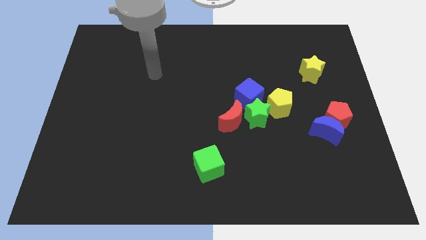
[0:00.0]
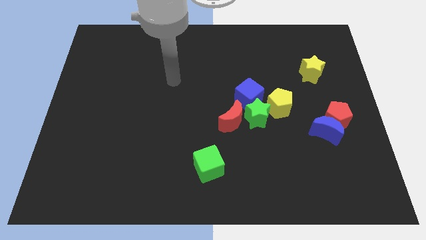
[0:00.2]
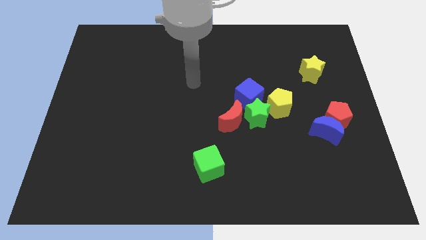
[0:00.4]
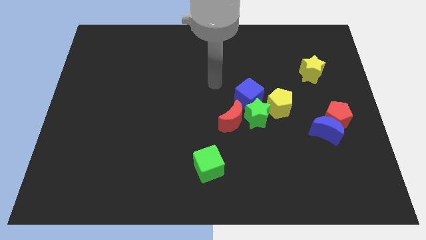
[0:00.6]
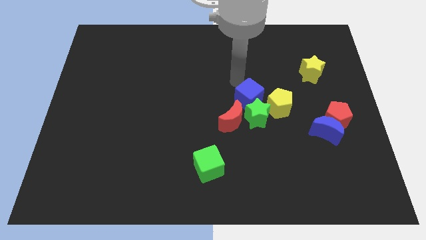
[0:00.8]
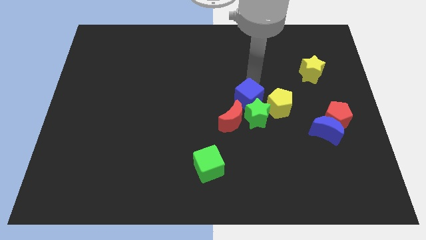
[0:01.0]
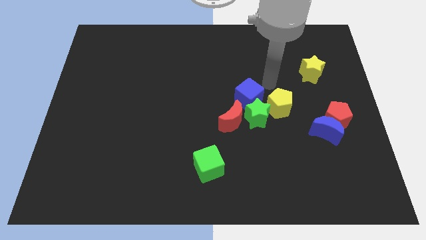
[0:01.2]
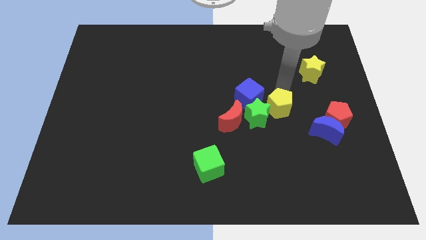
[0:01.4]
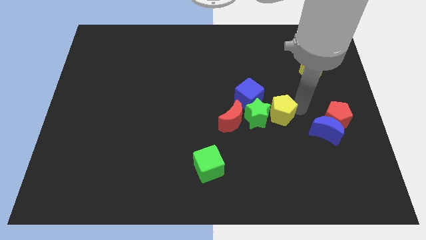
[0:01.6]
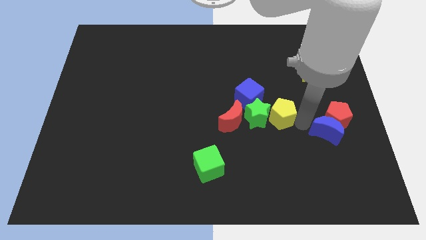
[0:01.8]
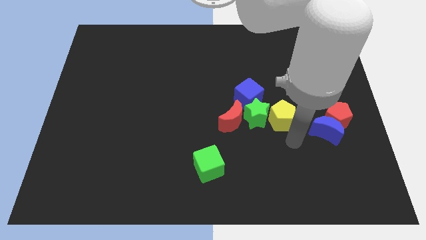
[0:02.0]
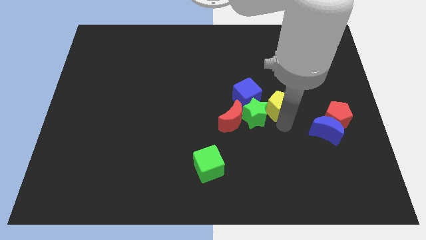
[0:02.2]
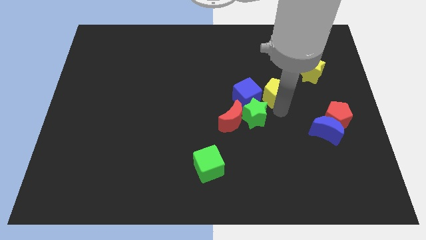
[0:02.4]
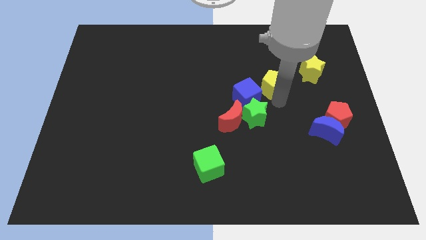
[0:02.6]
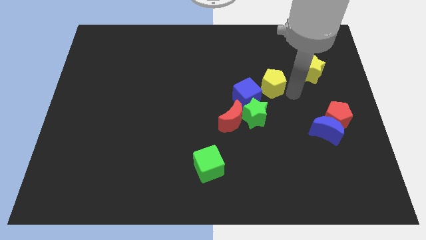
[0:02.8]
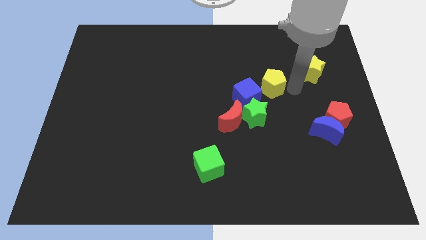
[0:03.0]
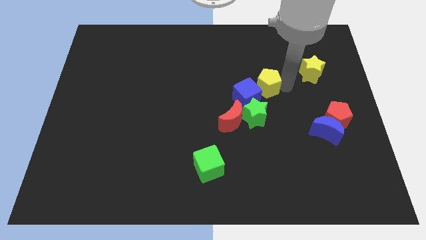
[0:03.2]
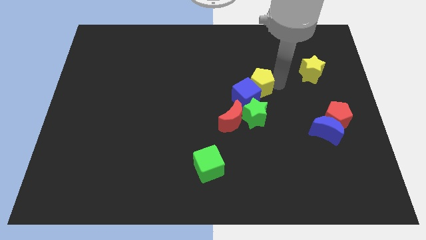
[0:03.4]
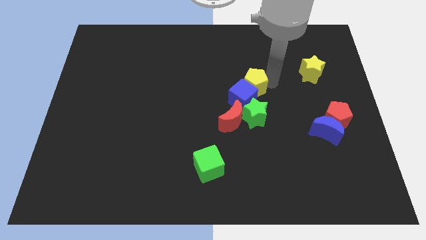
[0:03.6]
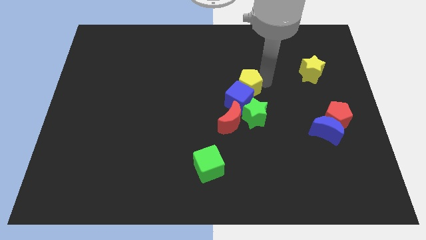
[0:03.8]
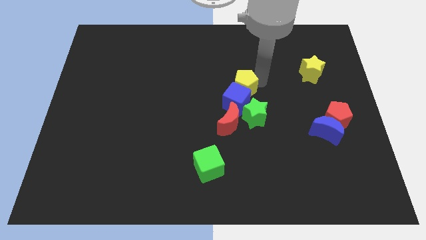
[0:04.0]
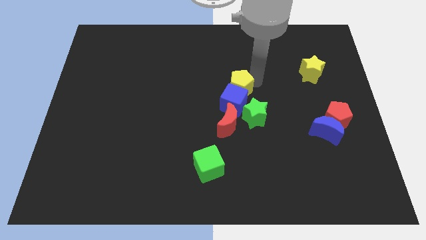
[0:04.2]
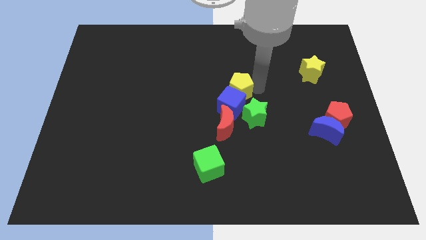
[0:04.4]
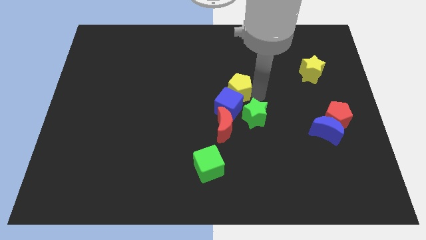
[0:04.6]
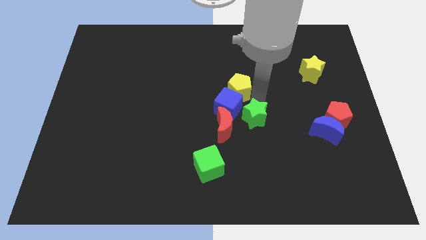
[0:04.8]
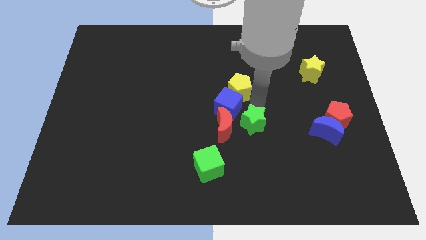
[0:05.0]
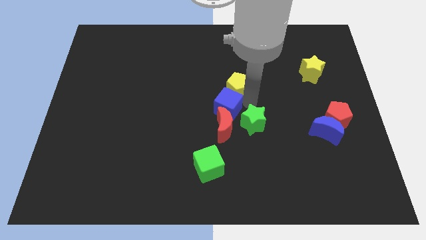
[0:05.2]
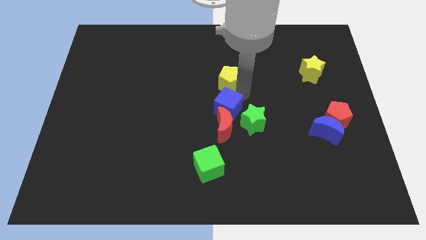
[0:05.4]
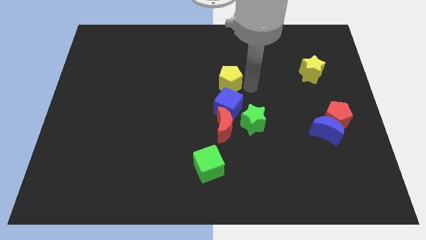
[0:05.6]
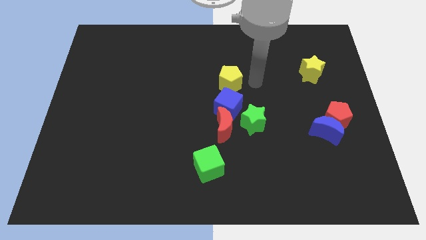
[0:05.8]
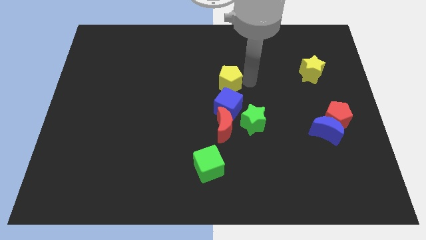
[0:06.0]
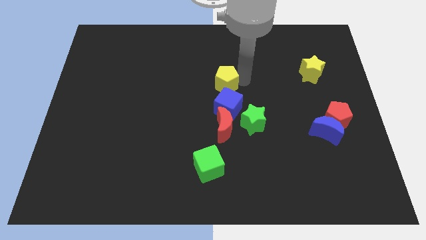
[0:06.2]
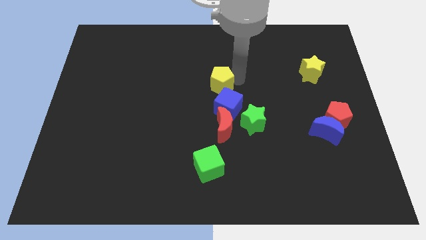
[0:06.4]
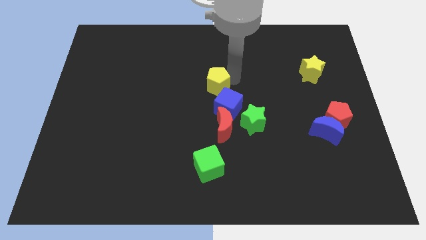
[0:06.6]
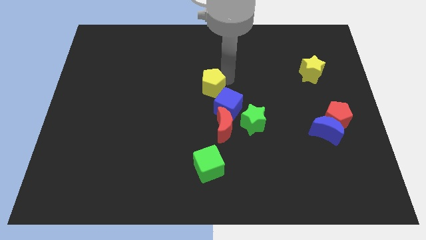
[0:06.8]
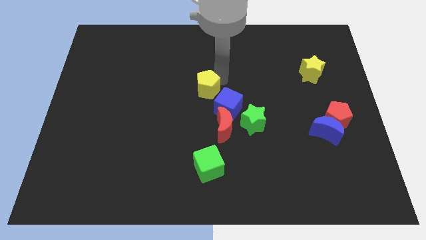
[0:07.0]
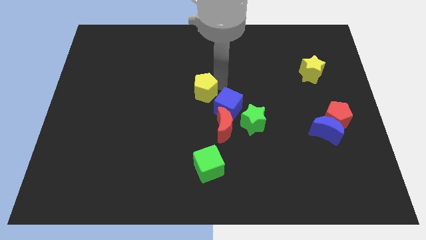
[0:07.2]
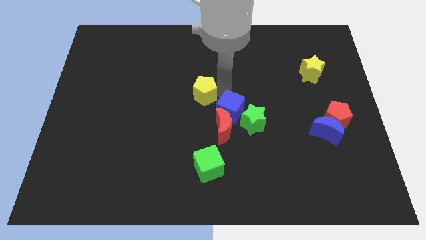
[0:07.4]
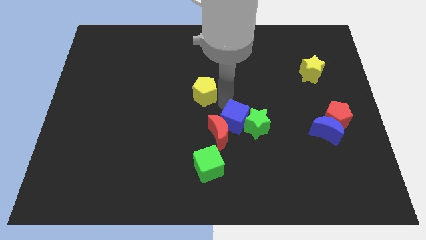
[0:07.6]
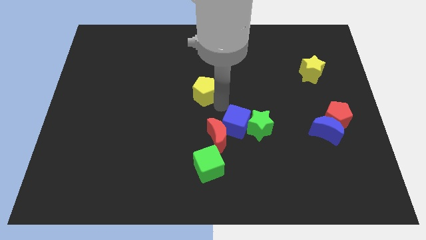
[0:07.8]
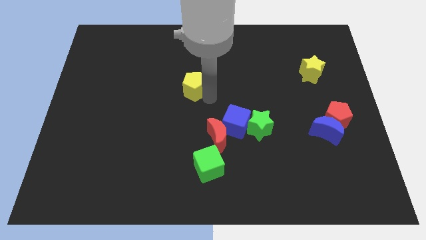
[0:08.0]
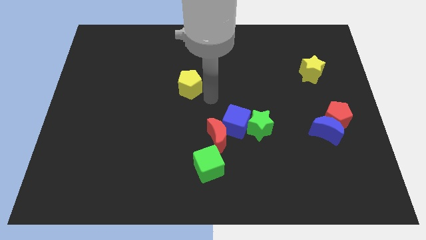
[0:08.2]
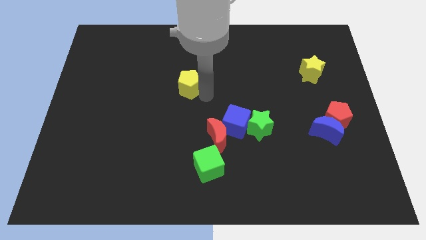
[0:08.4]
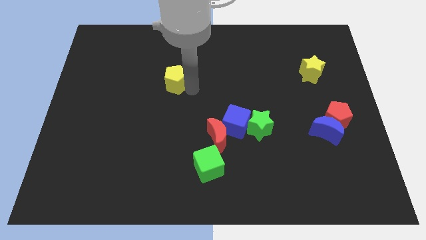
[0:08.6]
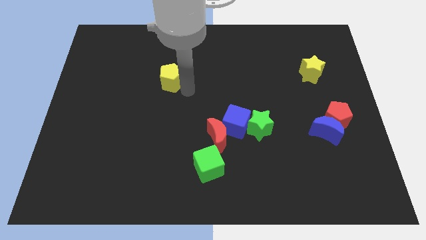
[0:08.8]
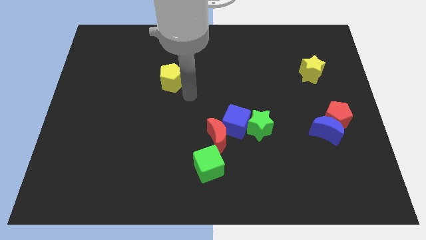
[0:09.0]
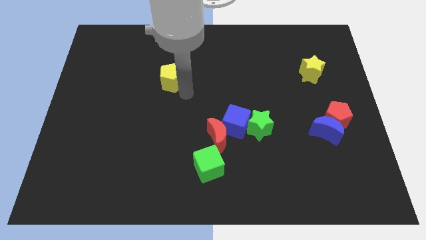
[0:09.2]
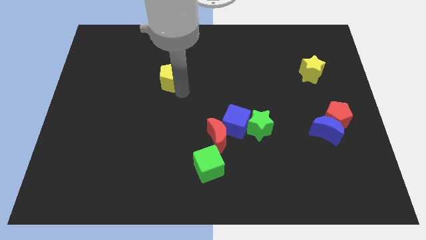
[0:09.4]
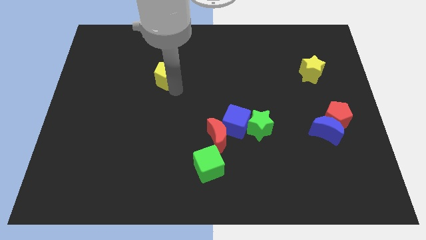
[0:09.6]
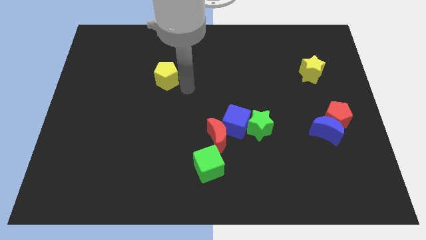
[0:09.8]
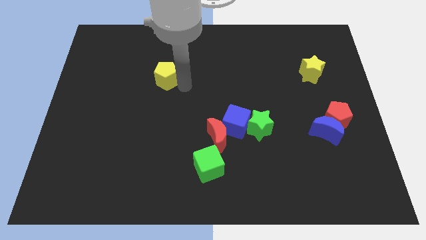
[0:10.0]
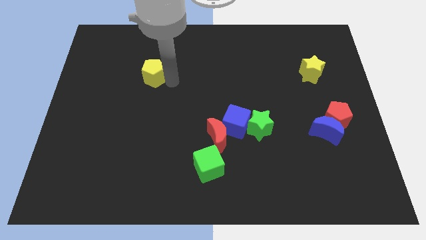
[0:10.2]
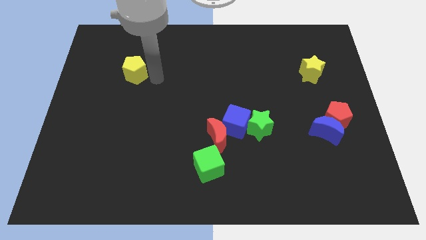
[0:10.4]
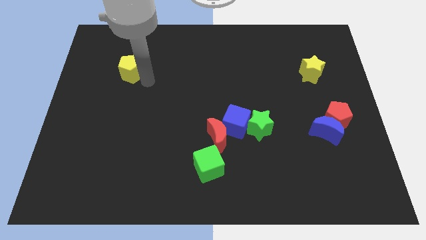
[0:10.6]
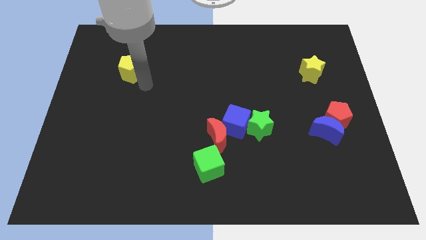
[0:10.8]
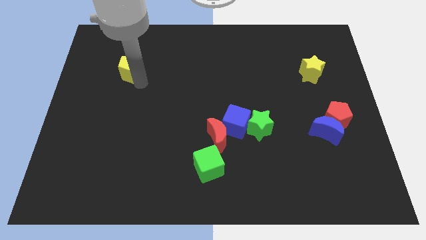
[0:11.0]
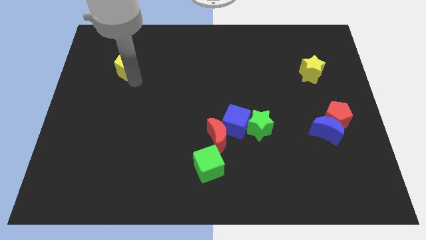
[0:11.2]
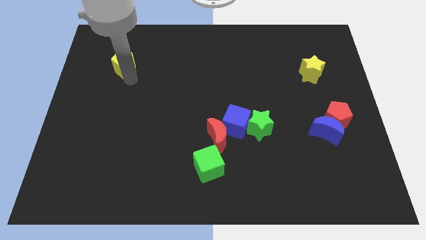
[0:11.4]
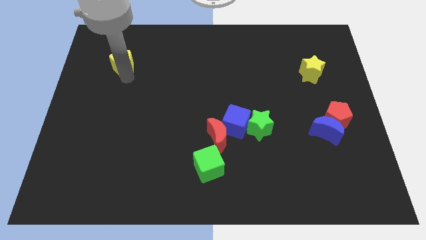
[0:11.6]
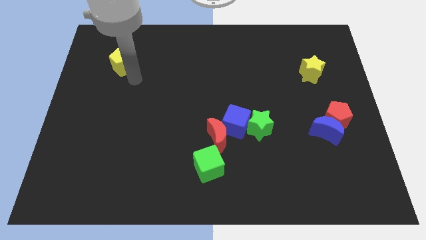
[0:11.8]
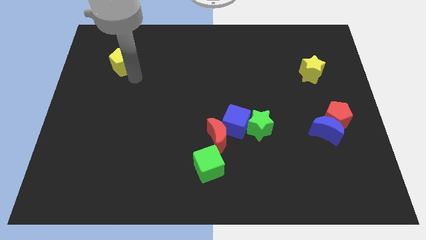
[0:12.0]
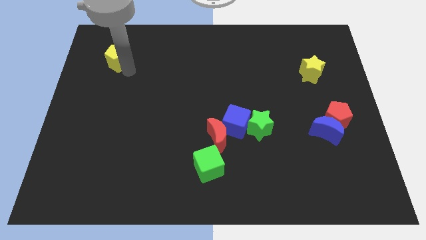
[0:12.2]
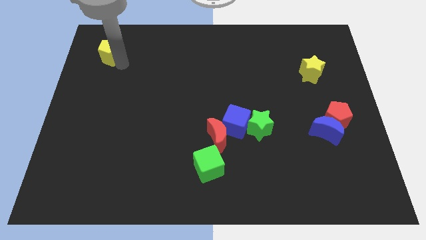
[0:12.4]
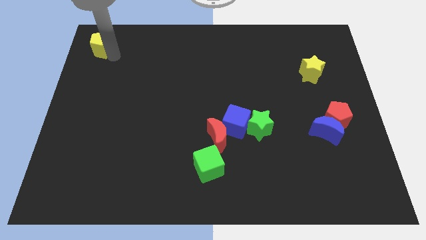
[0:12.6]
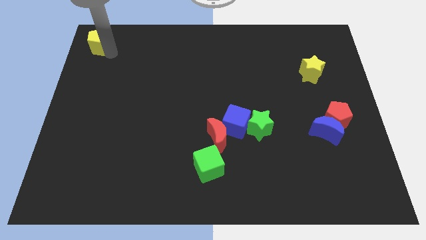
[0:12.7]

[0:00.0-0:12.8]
move the yellow pentagon to the top left
